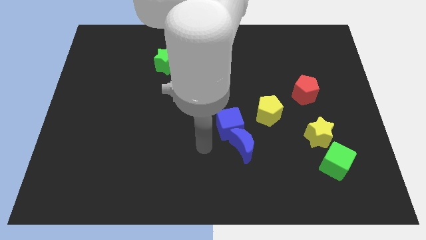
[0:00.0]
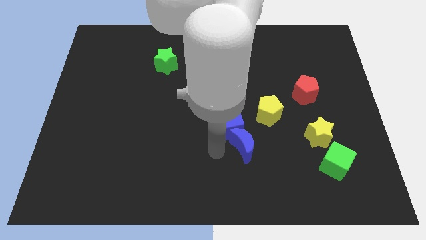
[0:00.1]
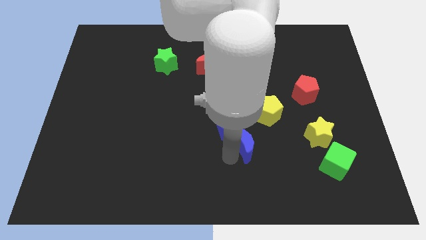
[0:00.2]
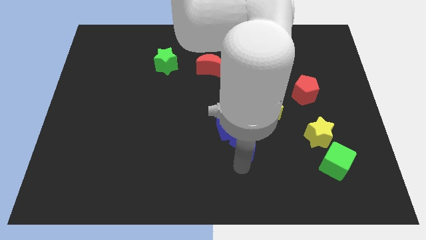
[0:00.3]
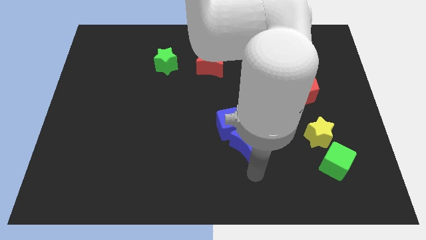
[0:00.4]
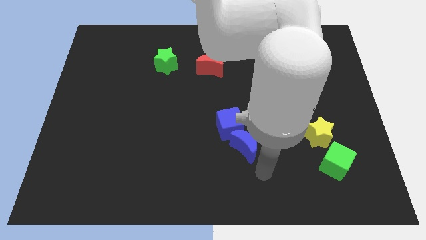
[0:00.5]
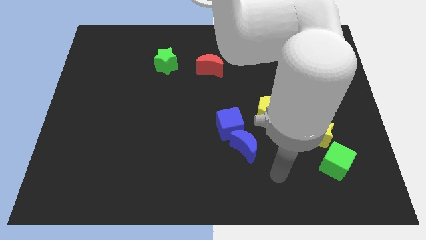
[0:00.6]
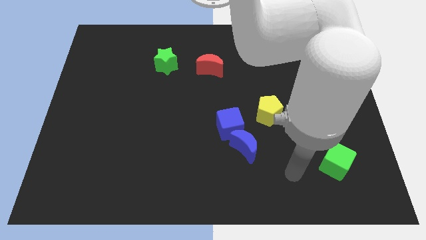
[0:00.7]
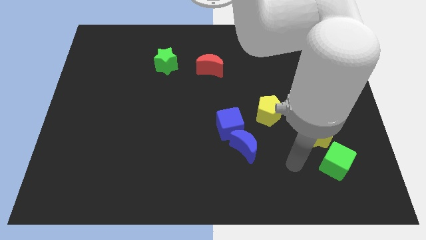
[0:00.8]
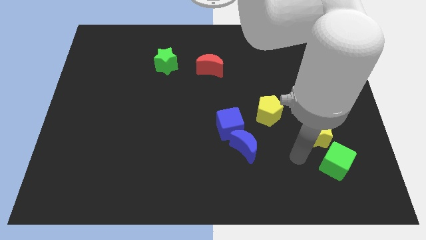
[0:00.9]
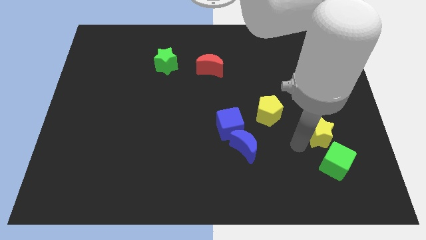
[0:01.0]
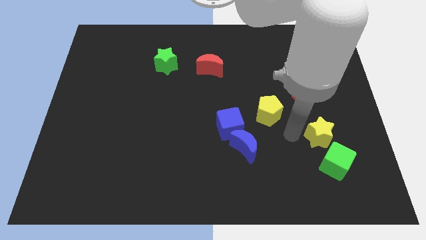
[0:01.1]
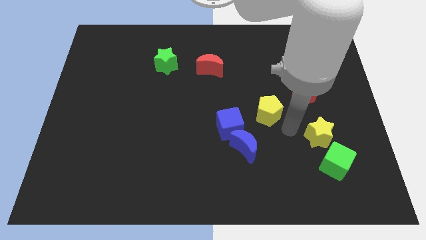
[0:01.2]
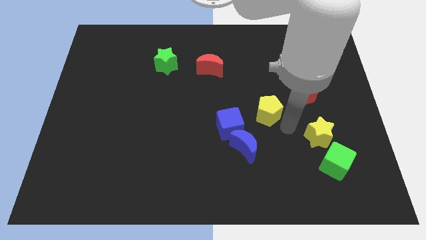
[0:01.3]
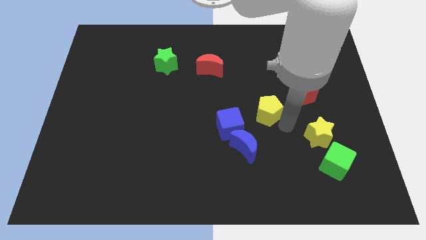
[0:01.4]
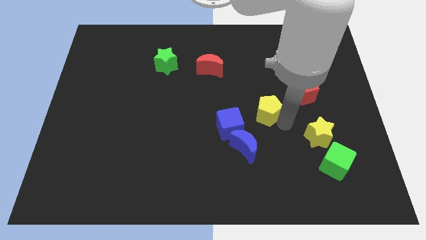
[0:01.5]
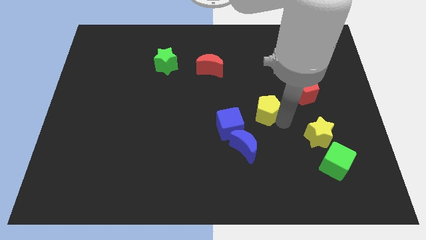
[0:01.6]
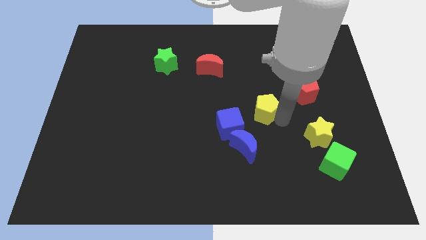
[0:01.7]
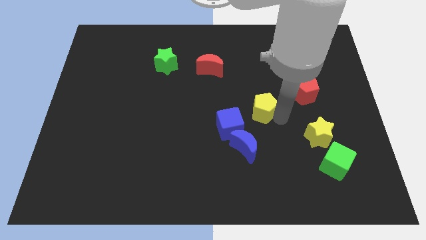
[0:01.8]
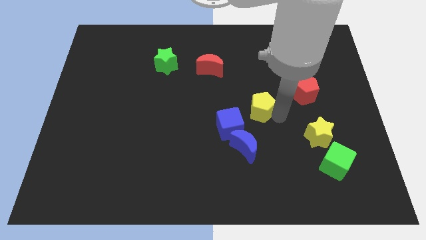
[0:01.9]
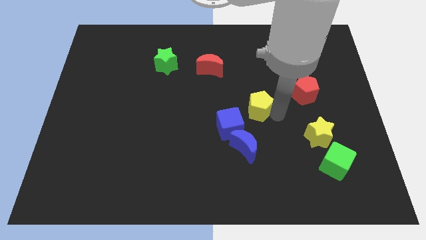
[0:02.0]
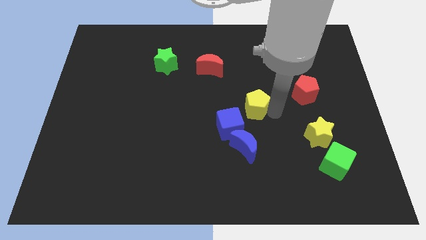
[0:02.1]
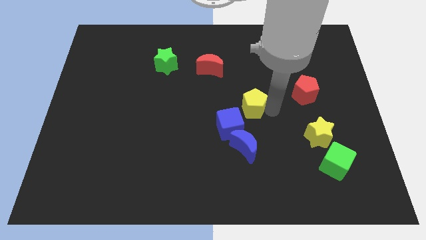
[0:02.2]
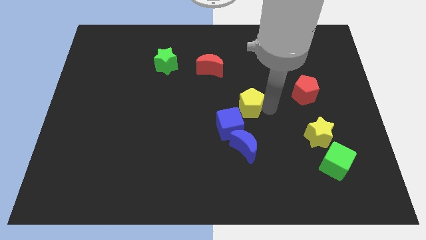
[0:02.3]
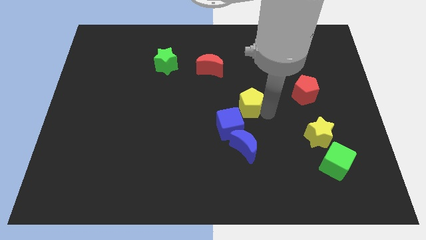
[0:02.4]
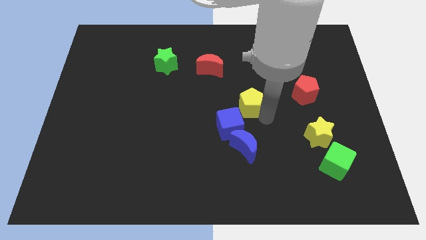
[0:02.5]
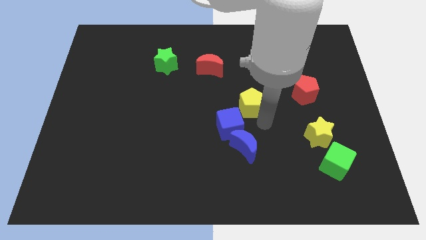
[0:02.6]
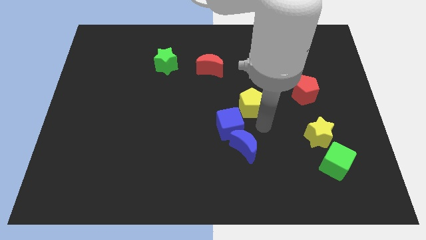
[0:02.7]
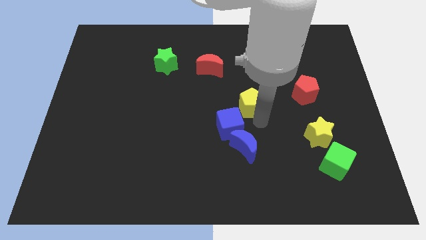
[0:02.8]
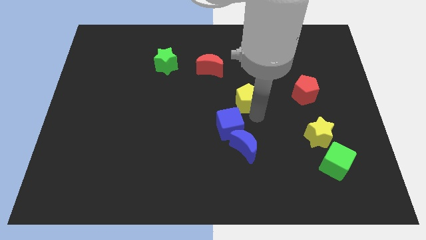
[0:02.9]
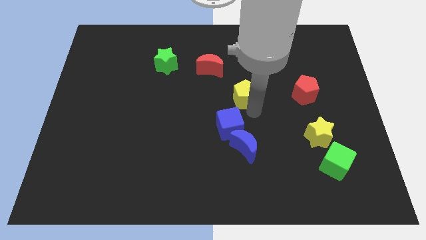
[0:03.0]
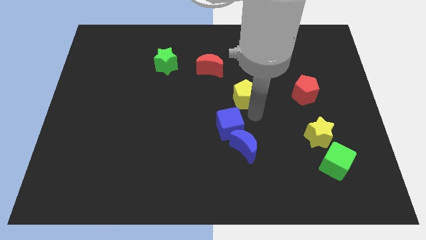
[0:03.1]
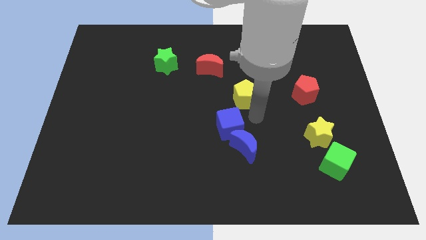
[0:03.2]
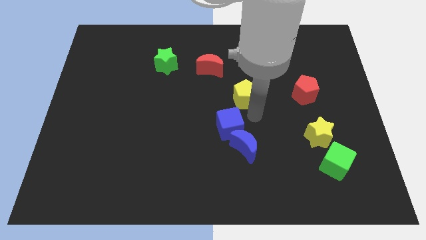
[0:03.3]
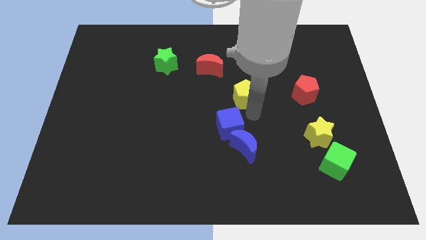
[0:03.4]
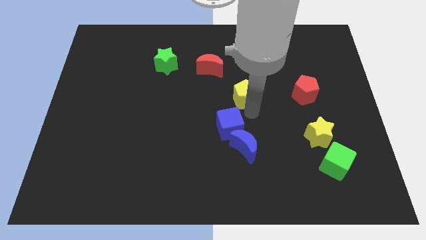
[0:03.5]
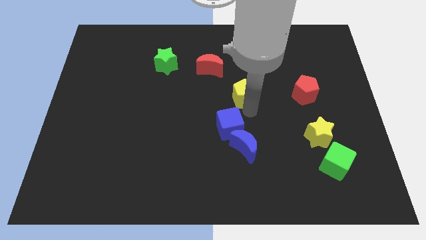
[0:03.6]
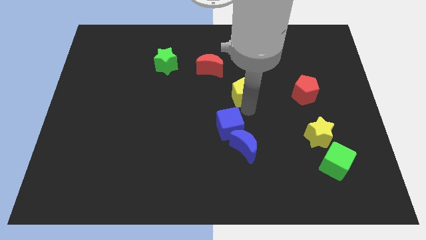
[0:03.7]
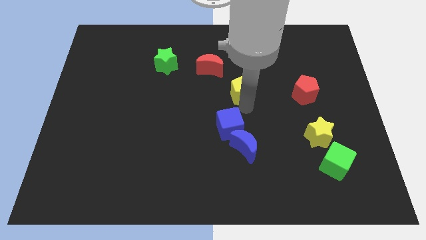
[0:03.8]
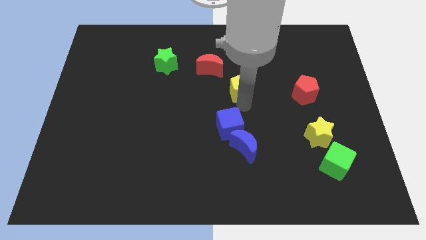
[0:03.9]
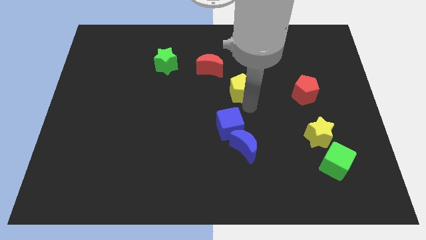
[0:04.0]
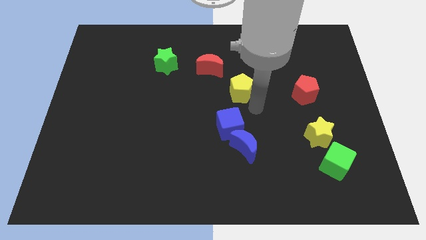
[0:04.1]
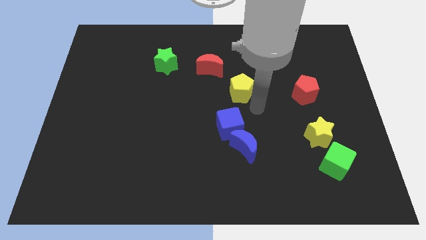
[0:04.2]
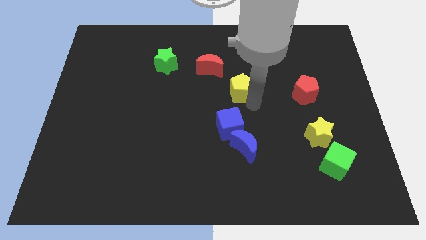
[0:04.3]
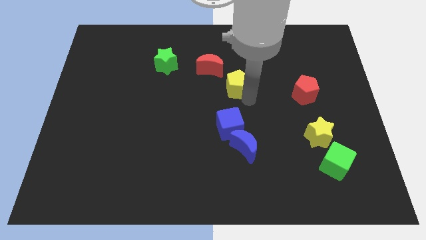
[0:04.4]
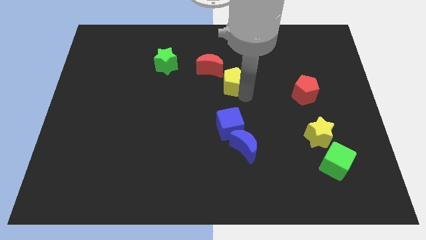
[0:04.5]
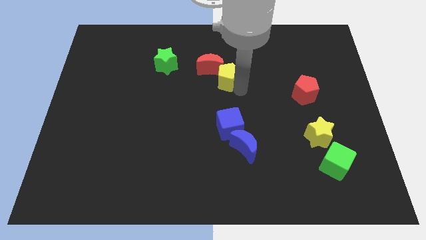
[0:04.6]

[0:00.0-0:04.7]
slide the yellow pentagon to the red moon

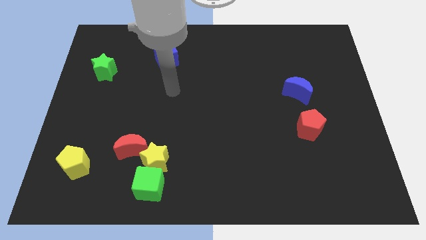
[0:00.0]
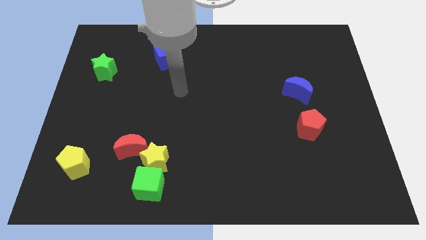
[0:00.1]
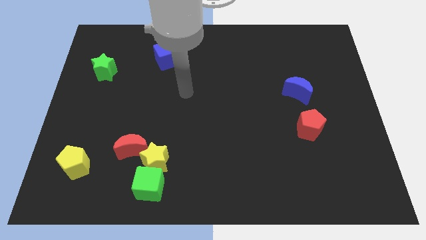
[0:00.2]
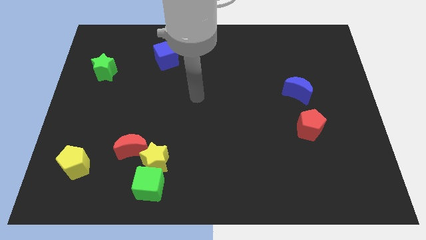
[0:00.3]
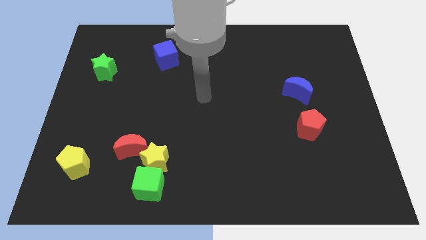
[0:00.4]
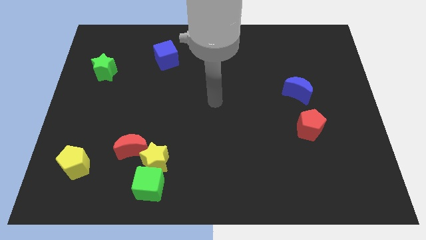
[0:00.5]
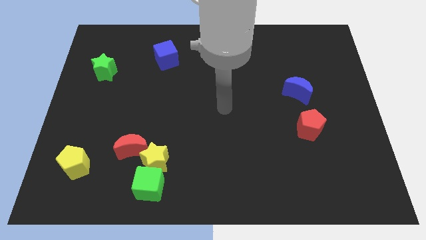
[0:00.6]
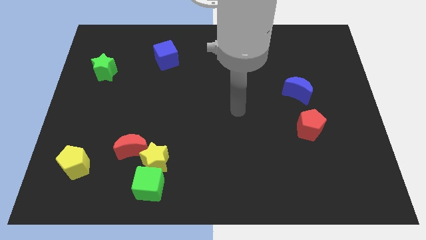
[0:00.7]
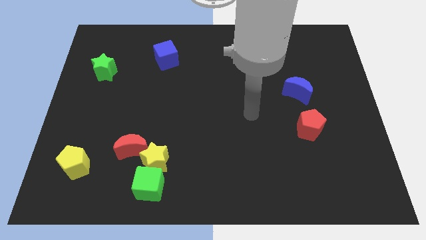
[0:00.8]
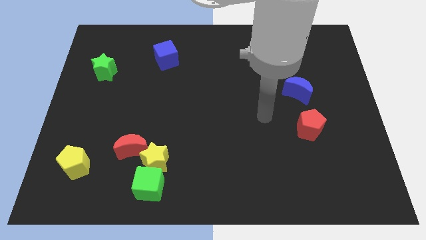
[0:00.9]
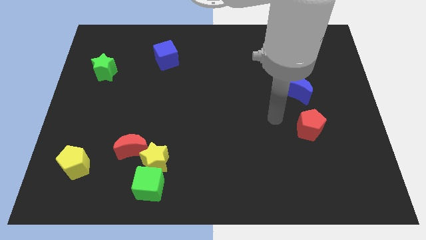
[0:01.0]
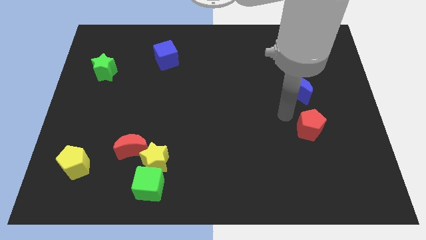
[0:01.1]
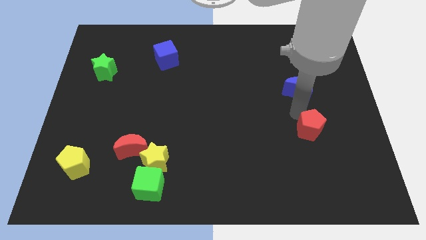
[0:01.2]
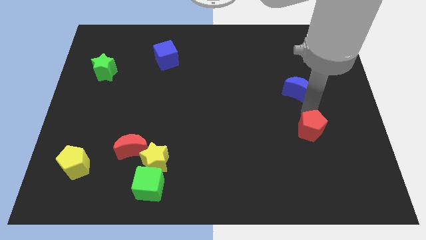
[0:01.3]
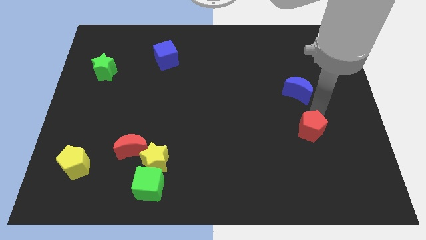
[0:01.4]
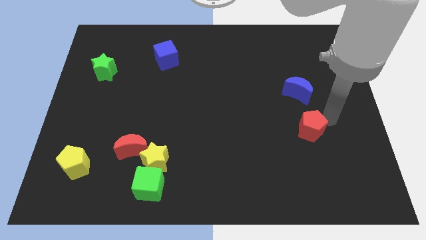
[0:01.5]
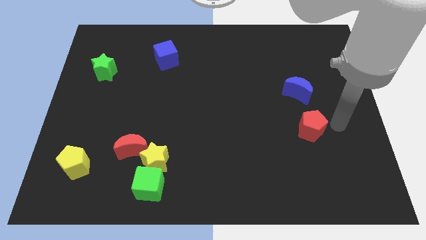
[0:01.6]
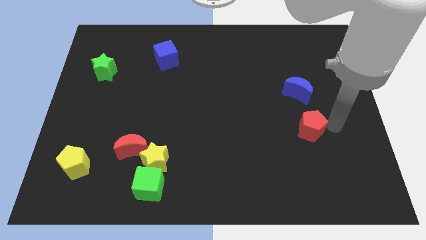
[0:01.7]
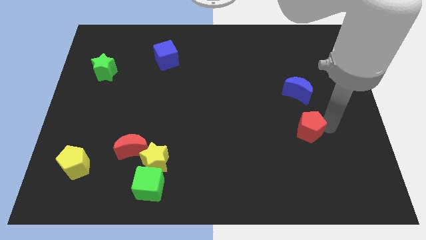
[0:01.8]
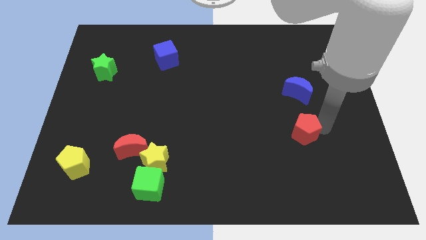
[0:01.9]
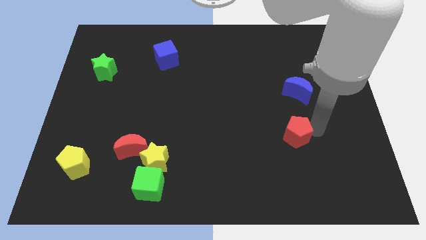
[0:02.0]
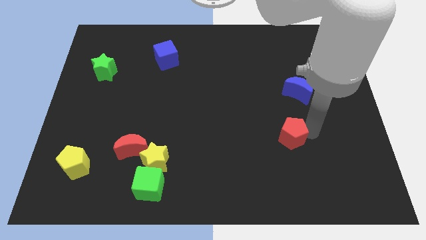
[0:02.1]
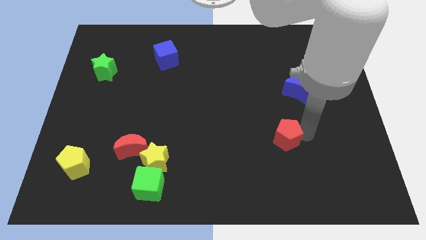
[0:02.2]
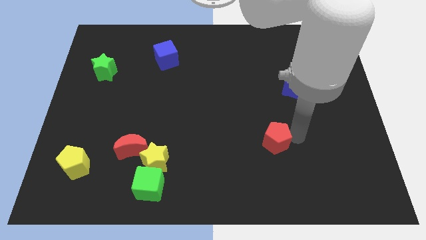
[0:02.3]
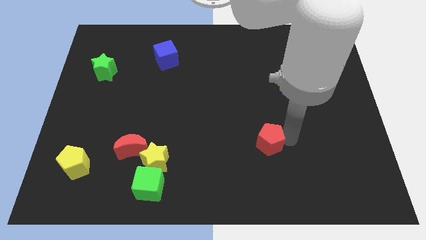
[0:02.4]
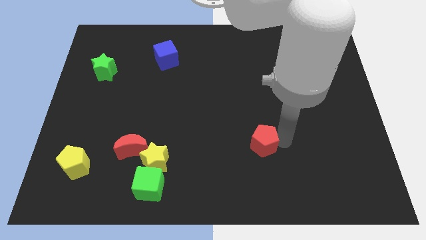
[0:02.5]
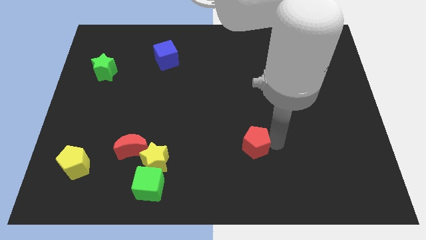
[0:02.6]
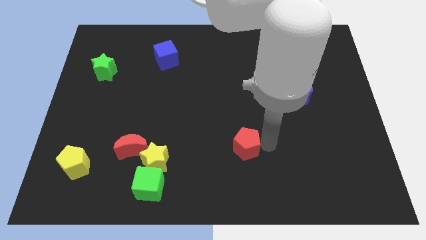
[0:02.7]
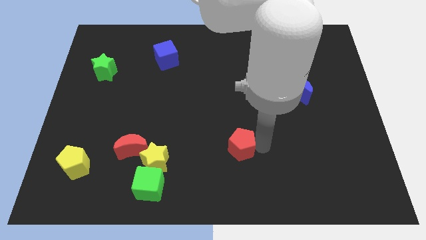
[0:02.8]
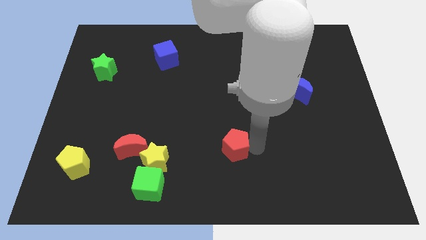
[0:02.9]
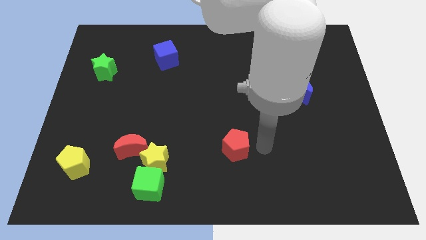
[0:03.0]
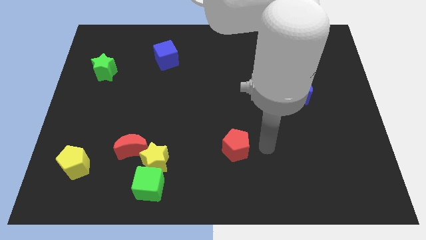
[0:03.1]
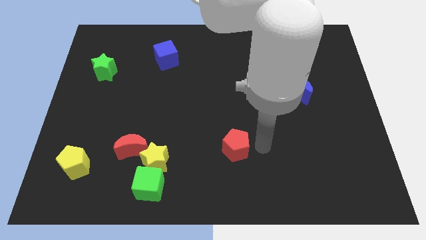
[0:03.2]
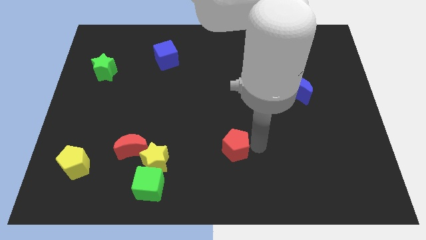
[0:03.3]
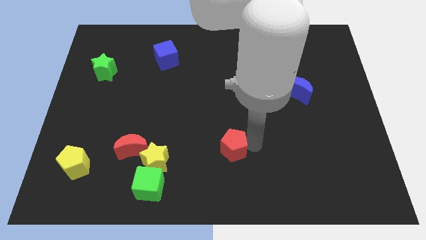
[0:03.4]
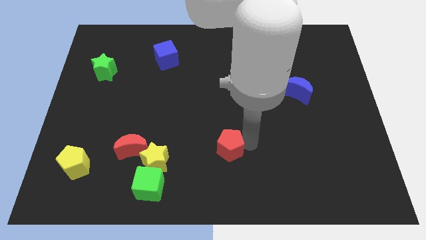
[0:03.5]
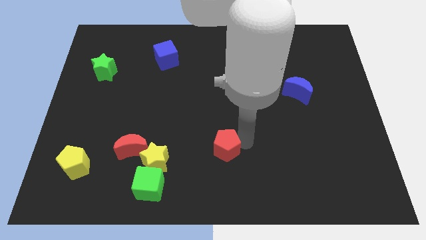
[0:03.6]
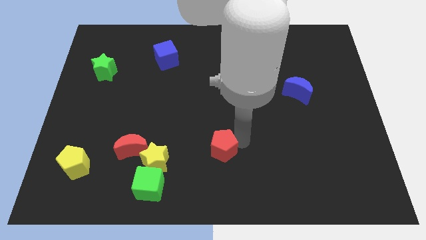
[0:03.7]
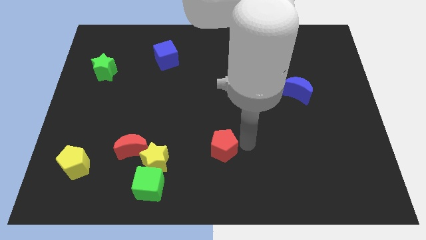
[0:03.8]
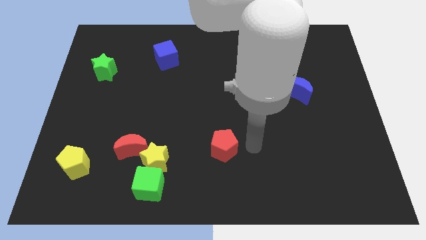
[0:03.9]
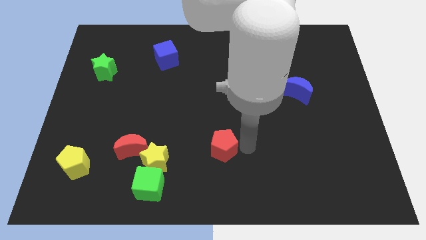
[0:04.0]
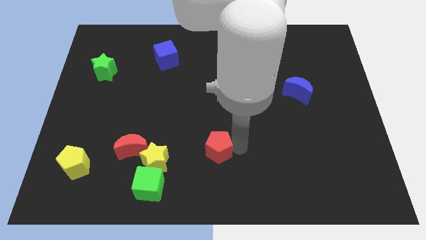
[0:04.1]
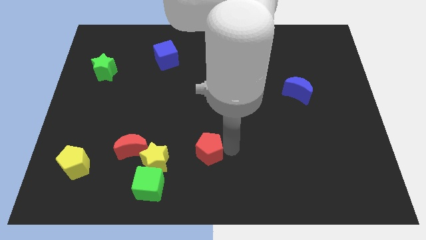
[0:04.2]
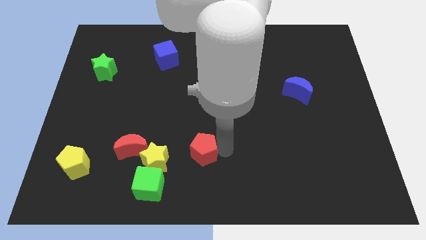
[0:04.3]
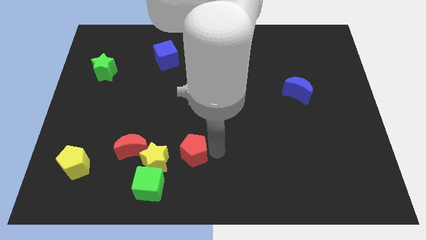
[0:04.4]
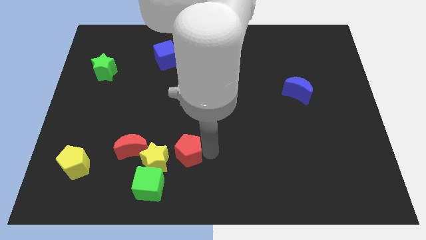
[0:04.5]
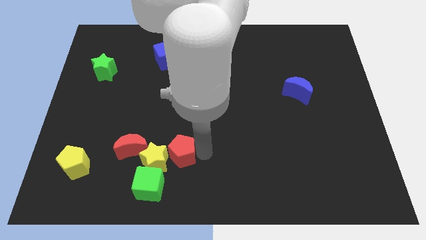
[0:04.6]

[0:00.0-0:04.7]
slide the red pentagon towards the yellow star
